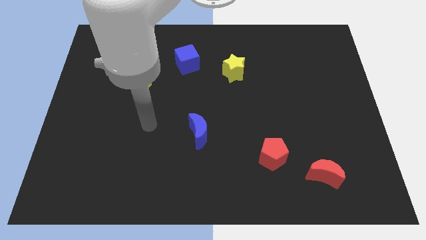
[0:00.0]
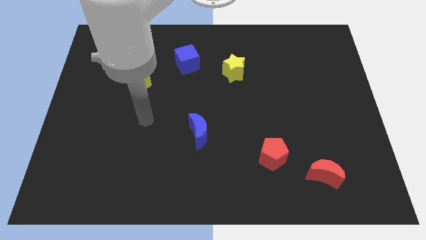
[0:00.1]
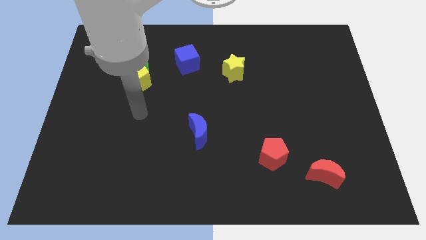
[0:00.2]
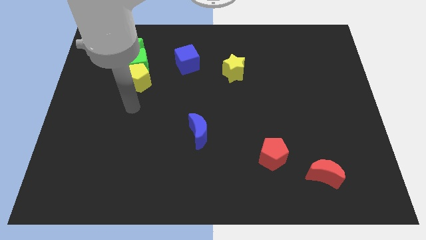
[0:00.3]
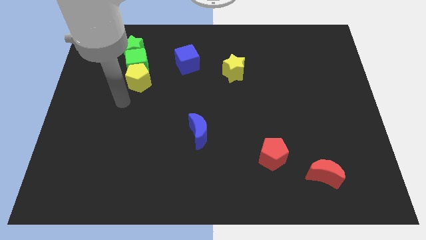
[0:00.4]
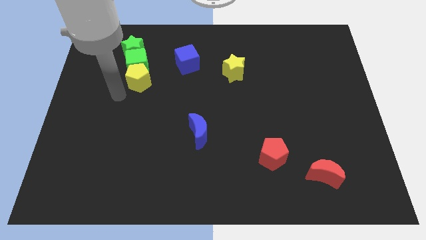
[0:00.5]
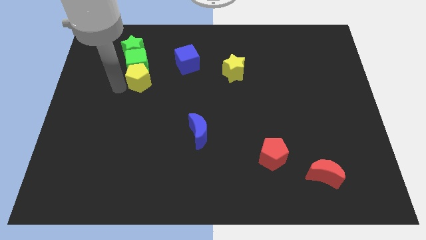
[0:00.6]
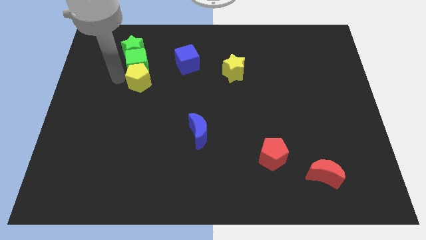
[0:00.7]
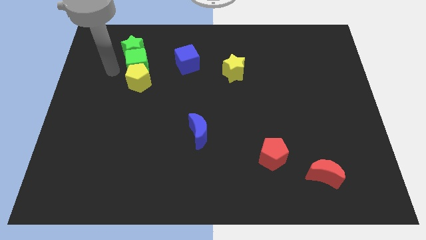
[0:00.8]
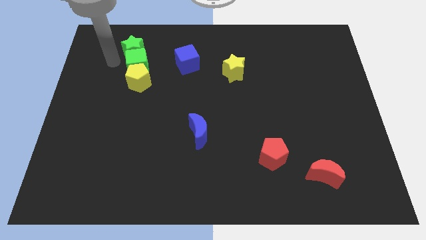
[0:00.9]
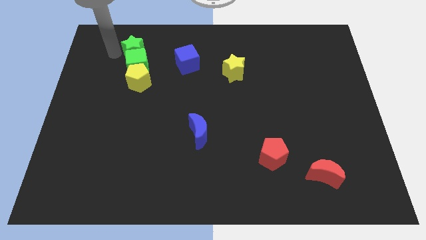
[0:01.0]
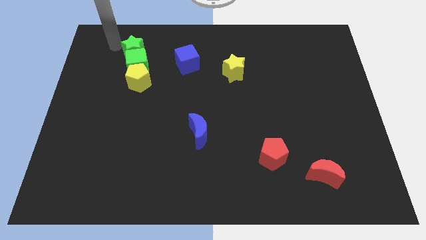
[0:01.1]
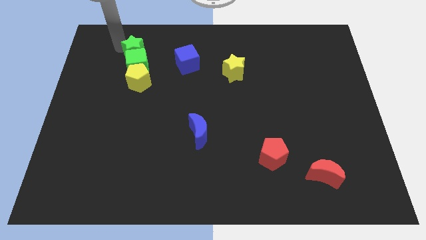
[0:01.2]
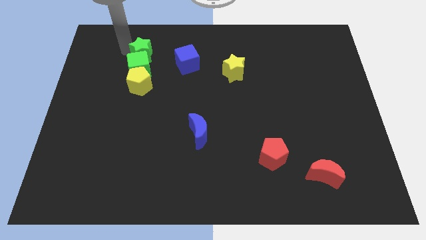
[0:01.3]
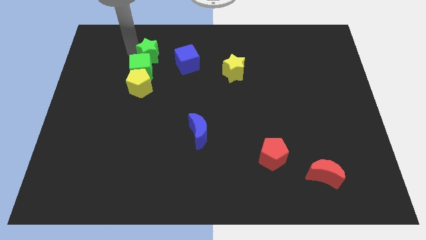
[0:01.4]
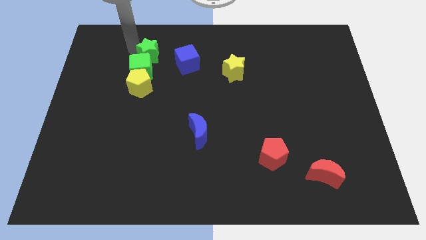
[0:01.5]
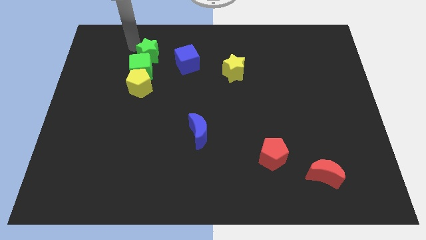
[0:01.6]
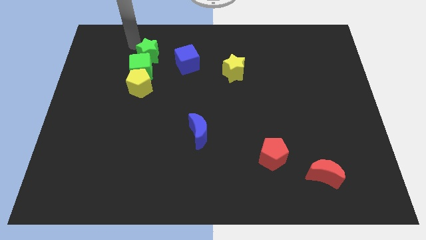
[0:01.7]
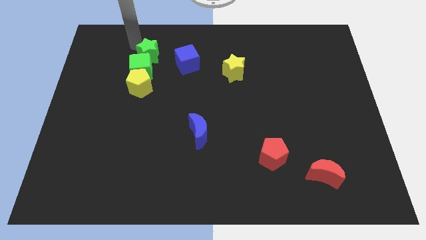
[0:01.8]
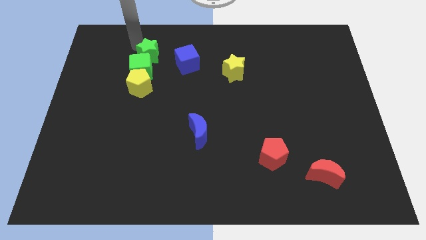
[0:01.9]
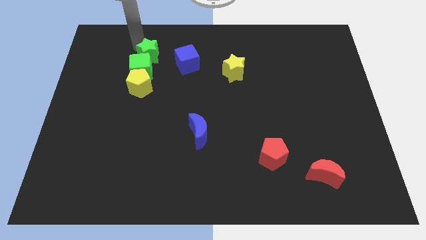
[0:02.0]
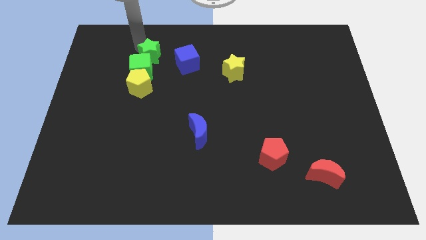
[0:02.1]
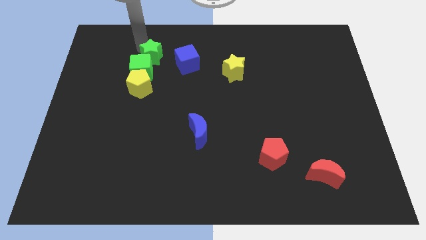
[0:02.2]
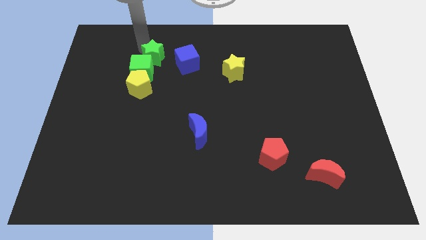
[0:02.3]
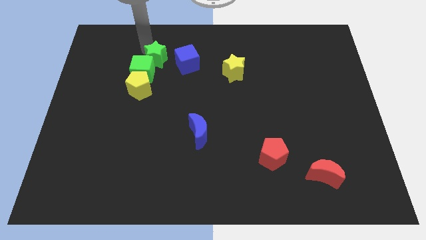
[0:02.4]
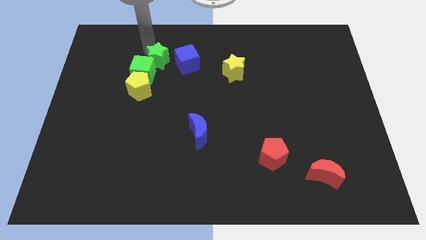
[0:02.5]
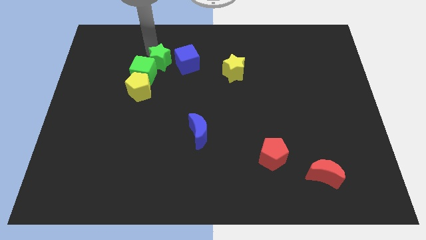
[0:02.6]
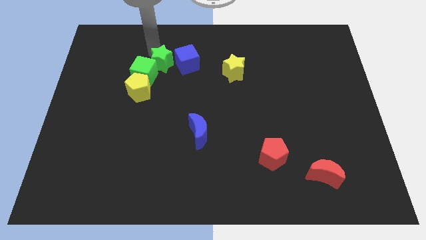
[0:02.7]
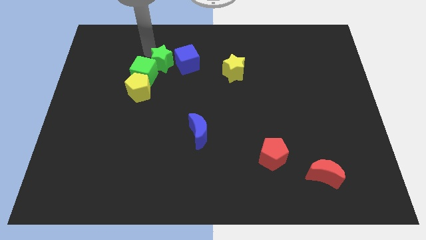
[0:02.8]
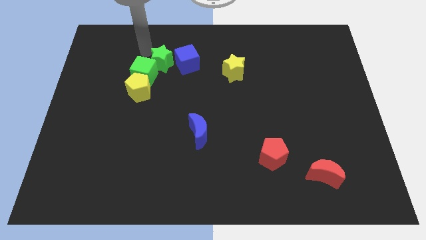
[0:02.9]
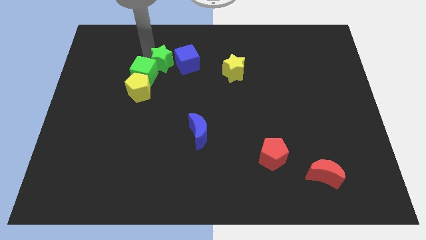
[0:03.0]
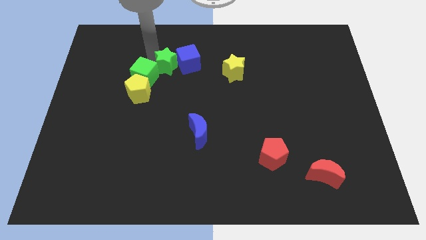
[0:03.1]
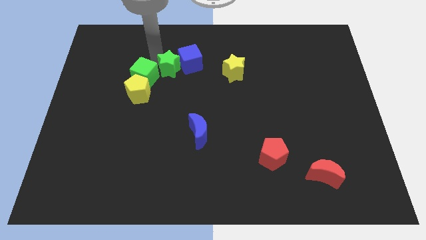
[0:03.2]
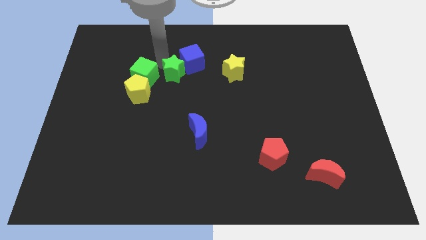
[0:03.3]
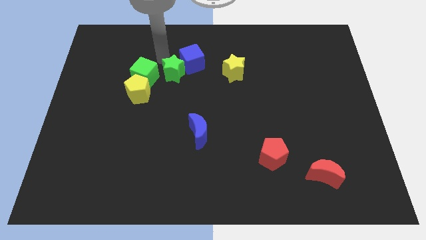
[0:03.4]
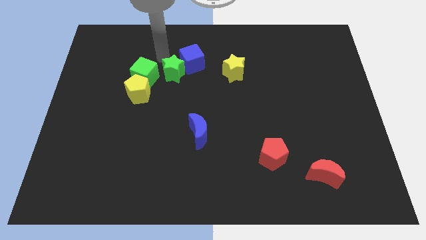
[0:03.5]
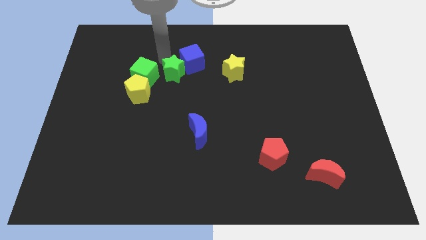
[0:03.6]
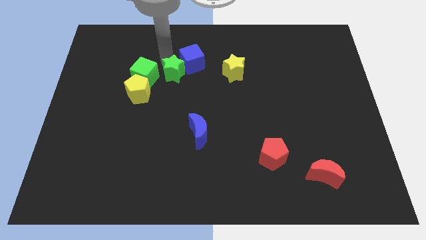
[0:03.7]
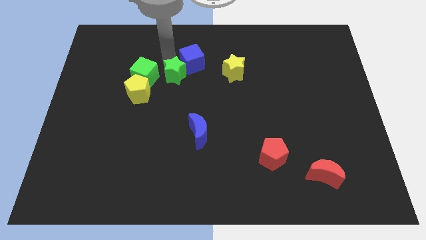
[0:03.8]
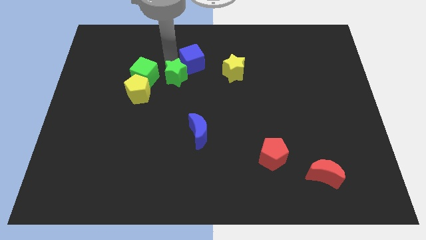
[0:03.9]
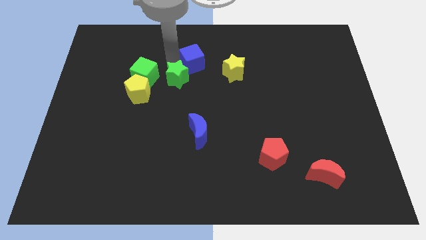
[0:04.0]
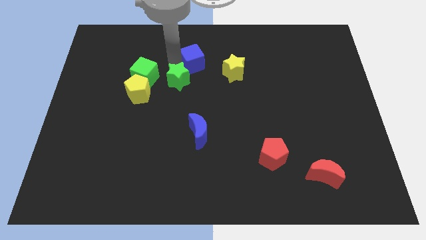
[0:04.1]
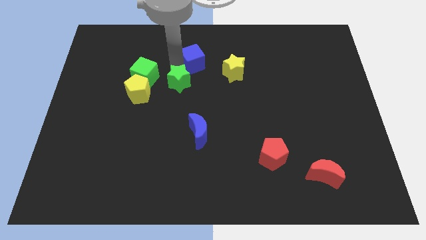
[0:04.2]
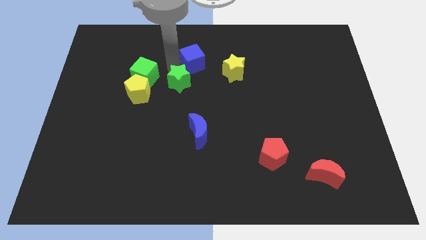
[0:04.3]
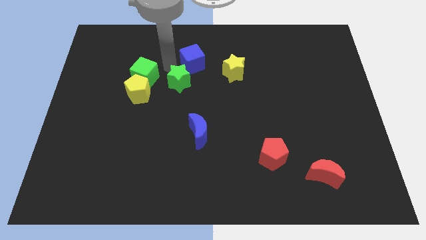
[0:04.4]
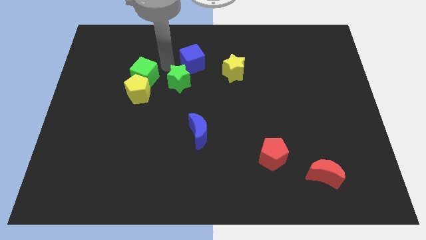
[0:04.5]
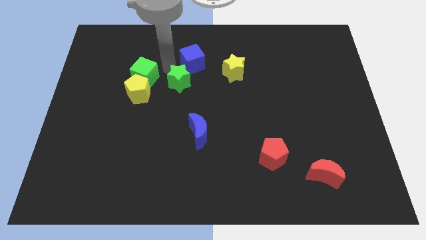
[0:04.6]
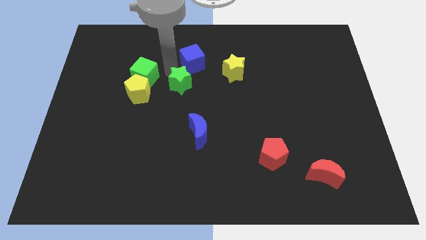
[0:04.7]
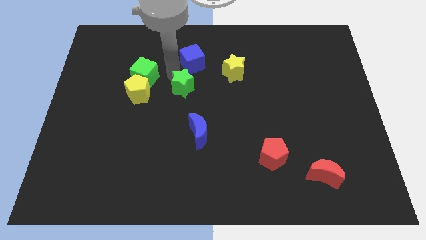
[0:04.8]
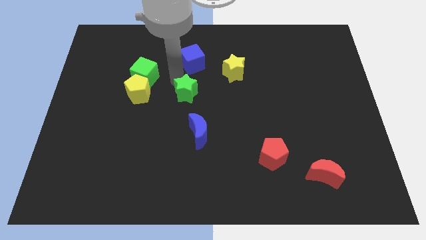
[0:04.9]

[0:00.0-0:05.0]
move the green star down and to the right diagonally

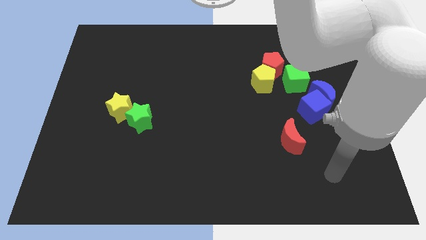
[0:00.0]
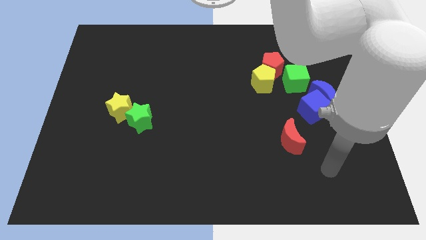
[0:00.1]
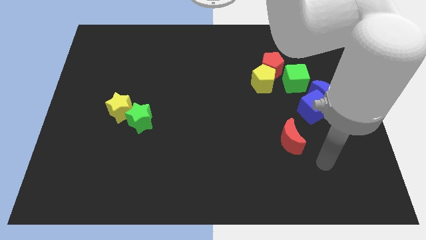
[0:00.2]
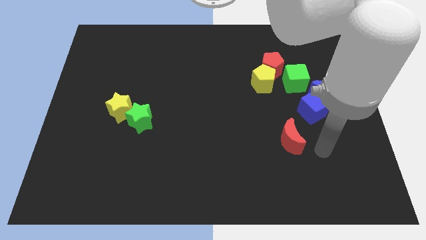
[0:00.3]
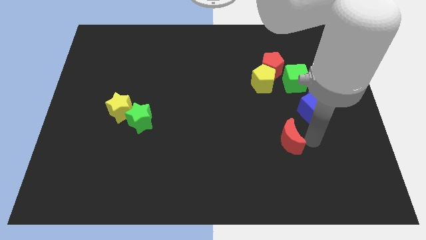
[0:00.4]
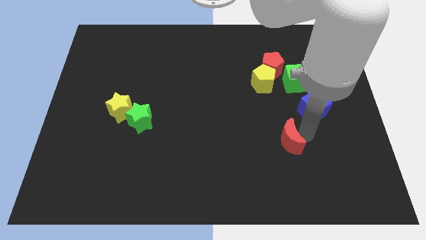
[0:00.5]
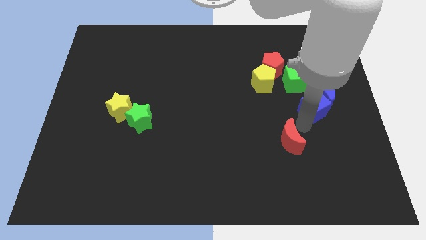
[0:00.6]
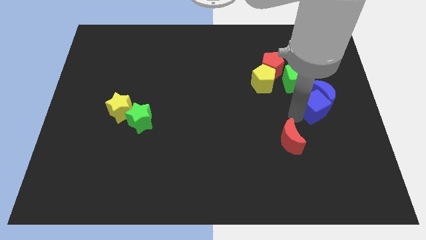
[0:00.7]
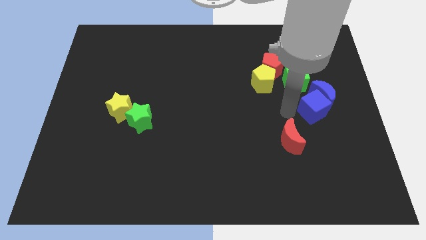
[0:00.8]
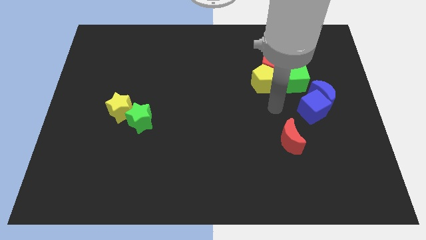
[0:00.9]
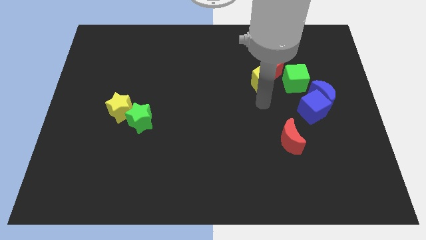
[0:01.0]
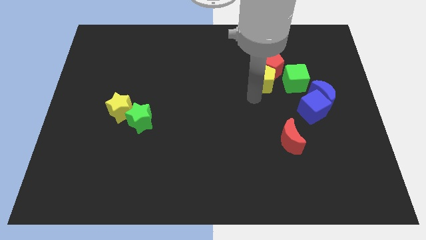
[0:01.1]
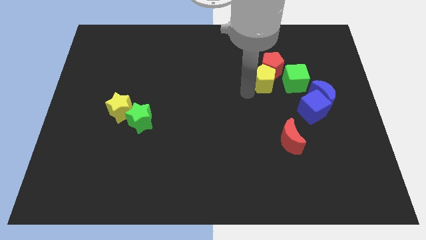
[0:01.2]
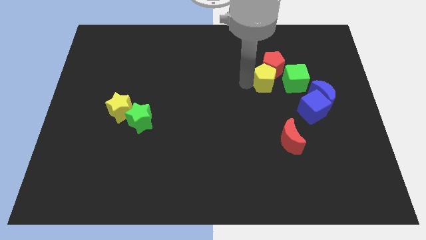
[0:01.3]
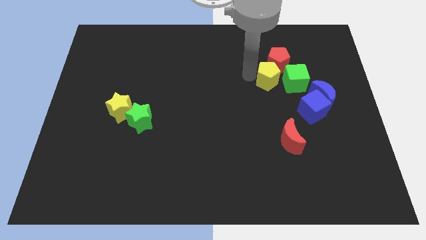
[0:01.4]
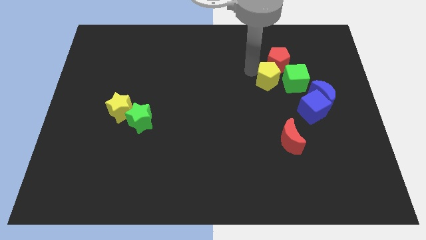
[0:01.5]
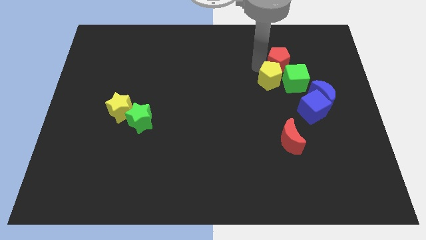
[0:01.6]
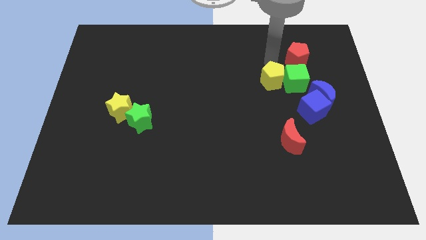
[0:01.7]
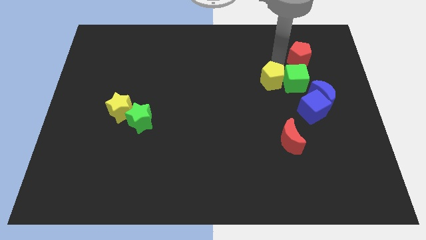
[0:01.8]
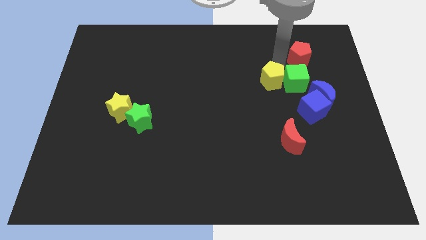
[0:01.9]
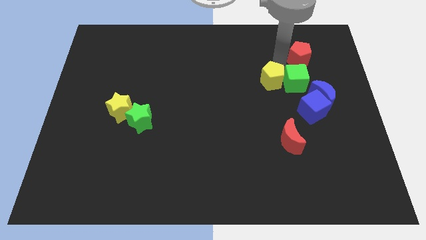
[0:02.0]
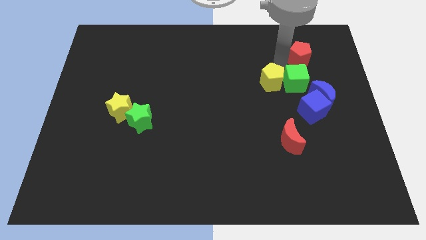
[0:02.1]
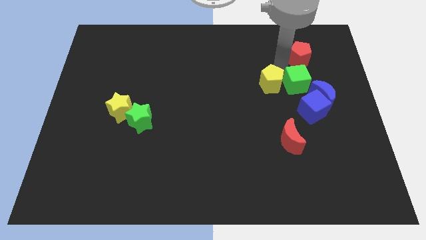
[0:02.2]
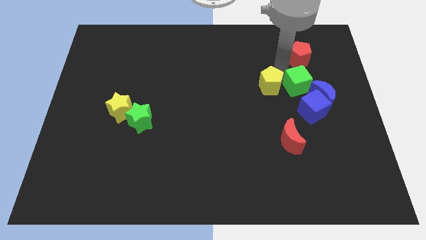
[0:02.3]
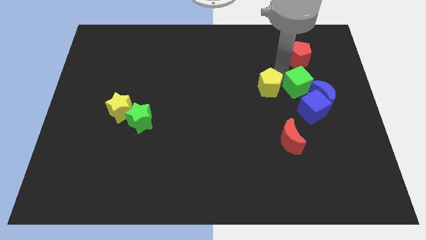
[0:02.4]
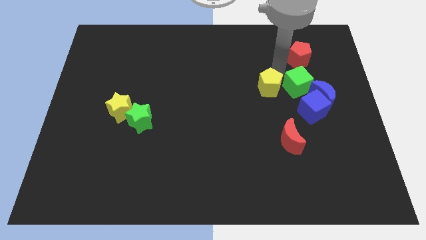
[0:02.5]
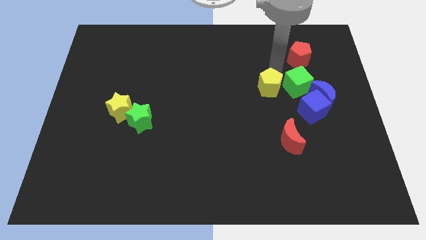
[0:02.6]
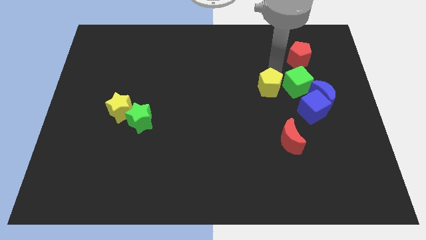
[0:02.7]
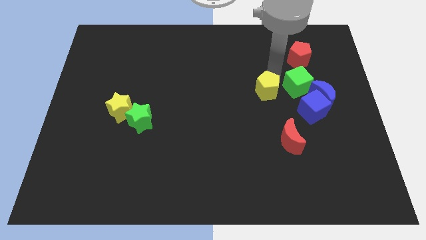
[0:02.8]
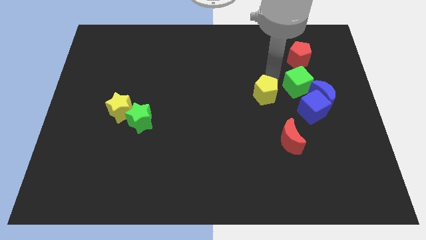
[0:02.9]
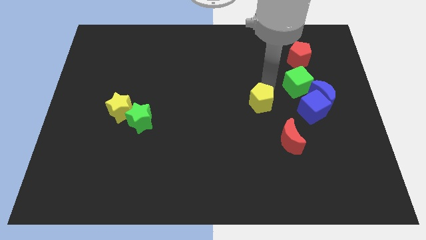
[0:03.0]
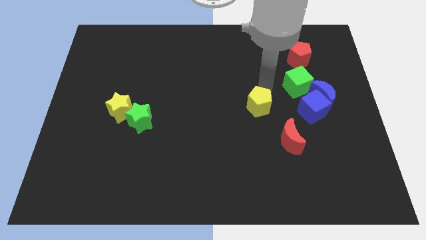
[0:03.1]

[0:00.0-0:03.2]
move the yellow pentagon down a little
